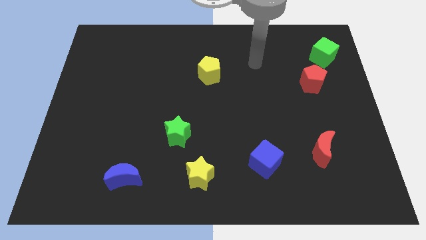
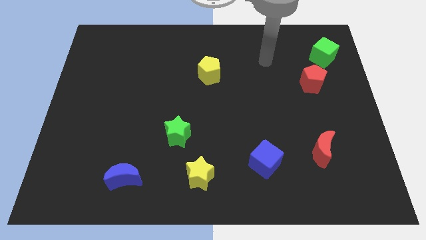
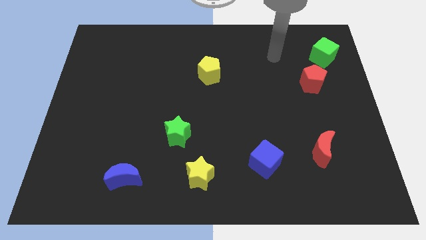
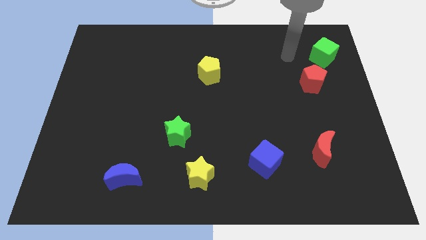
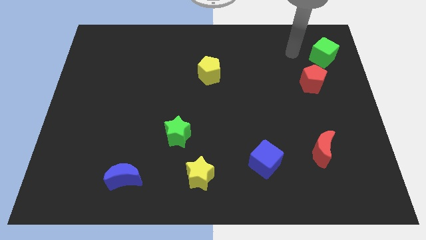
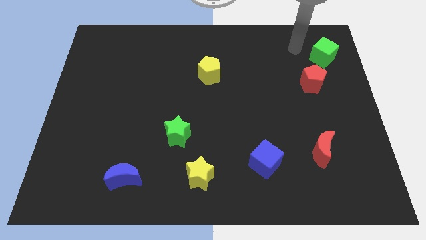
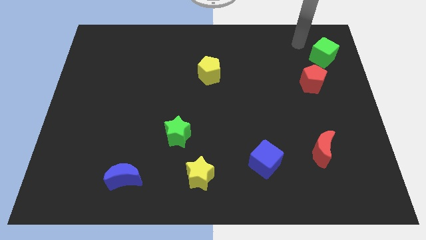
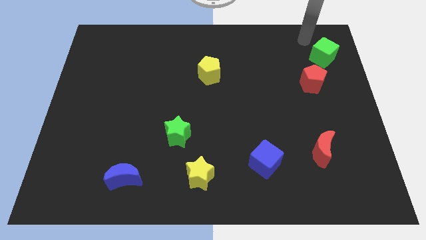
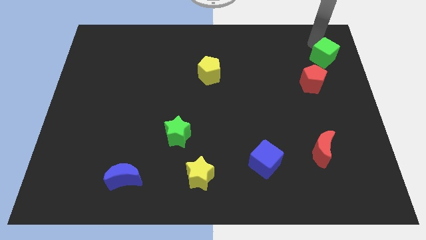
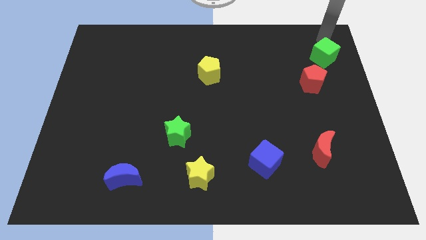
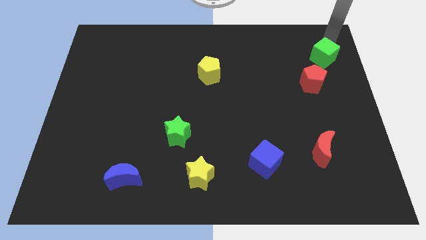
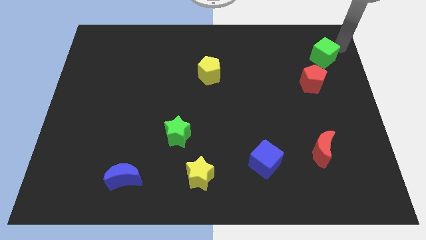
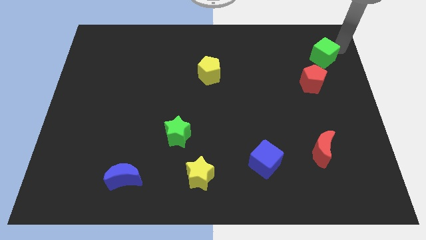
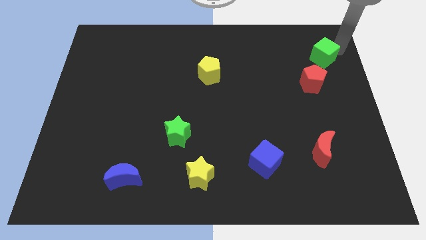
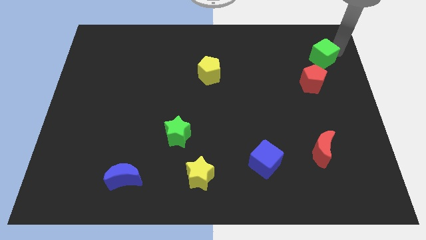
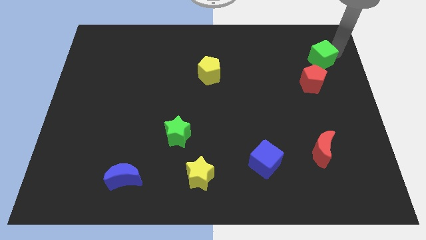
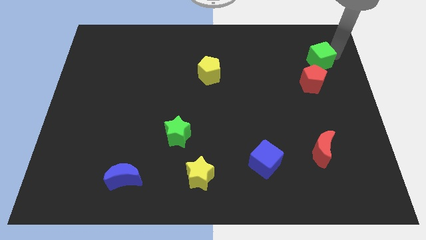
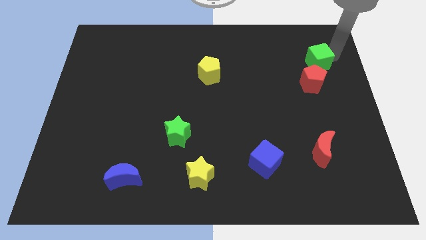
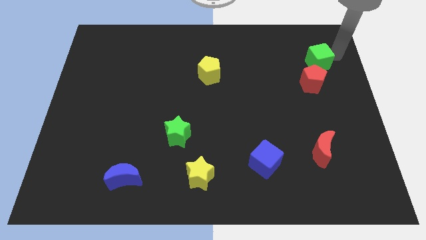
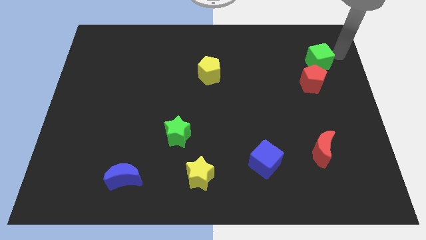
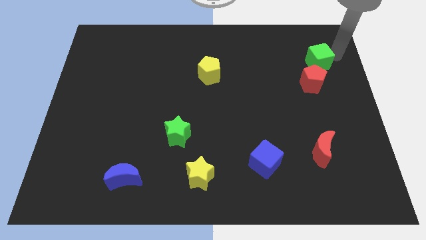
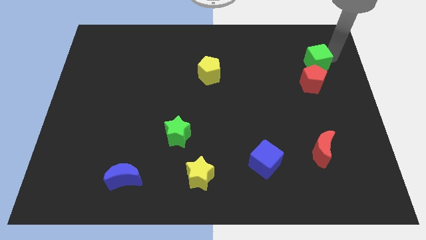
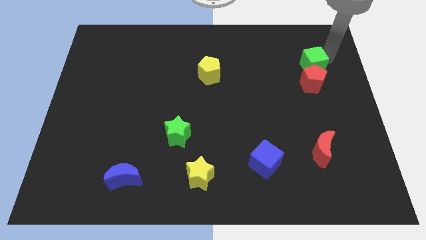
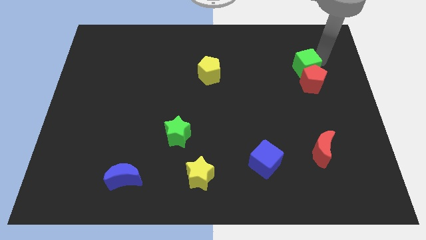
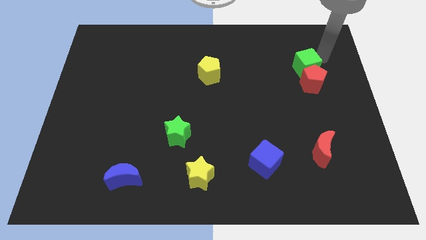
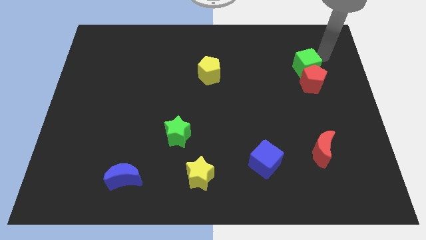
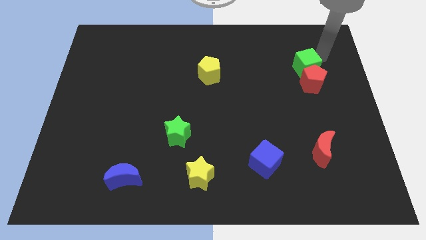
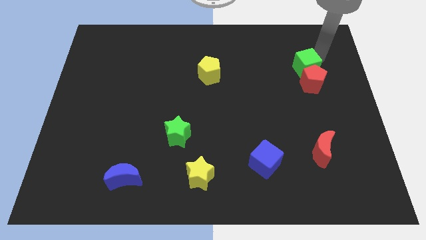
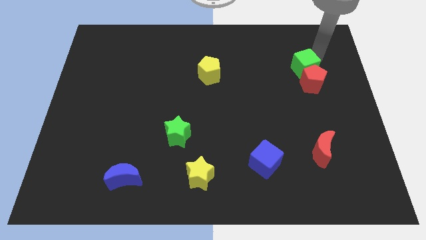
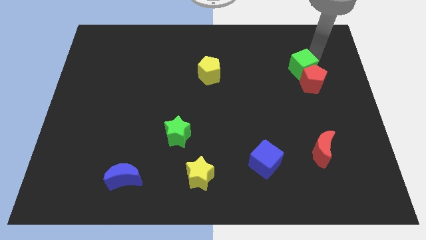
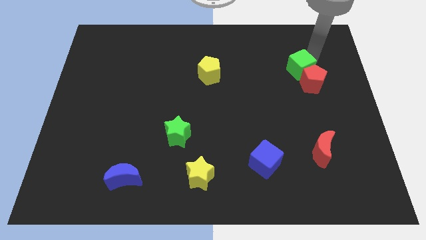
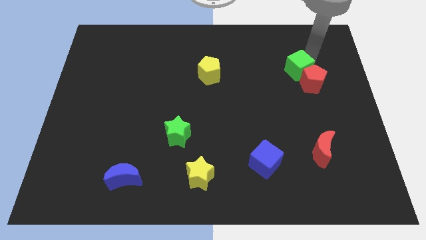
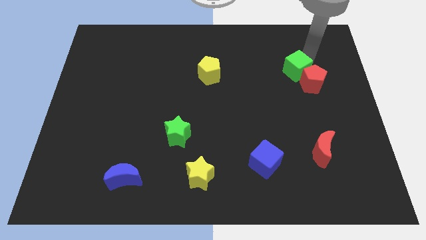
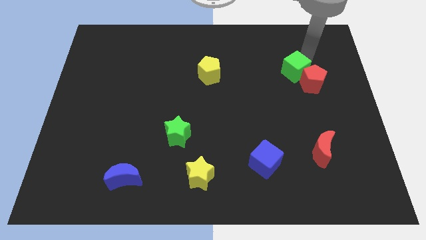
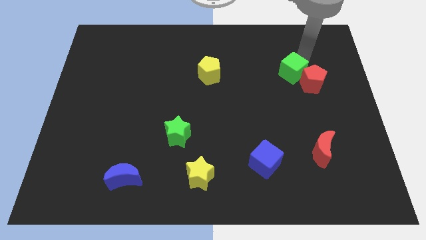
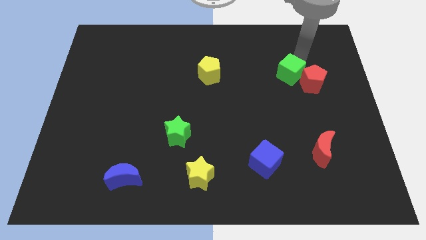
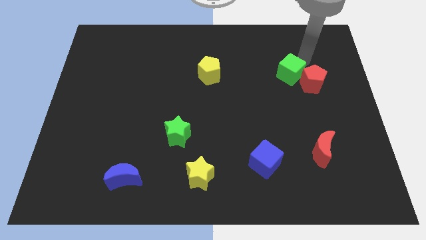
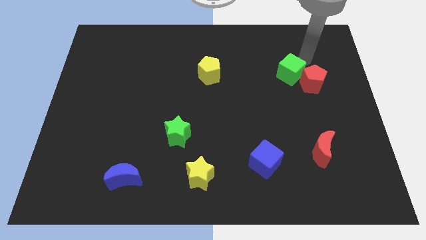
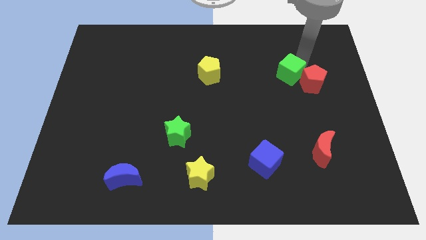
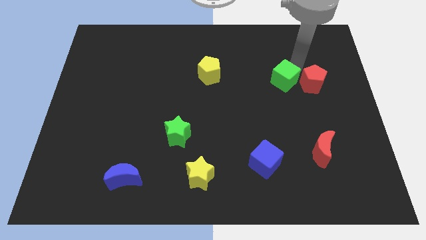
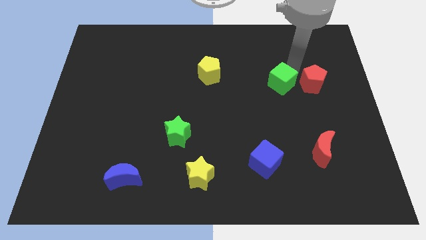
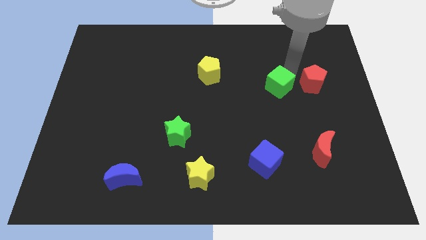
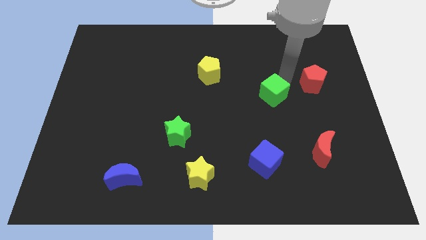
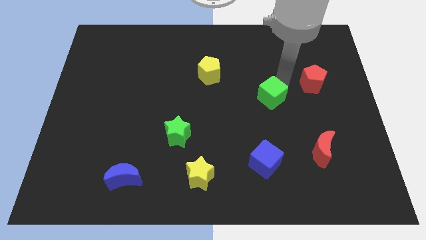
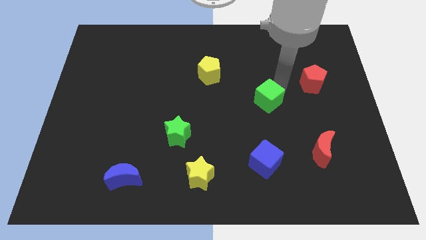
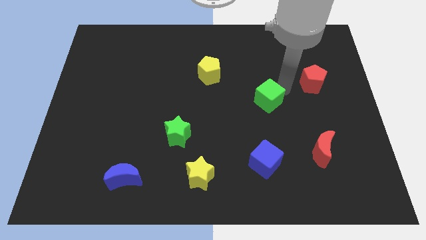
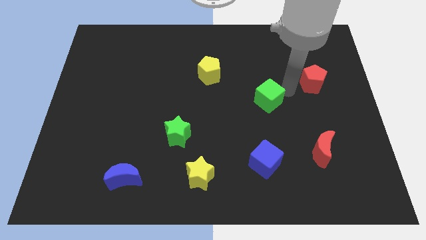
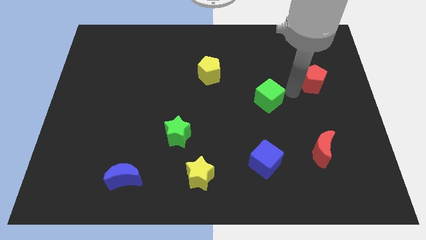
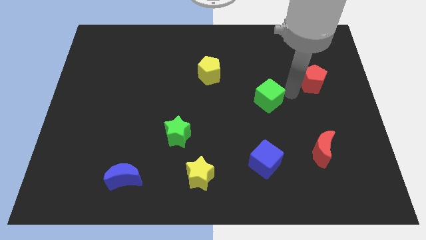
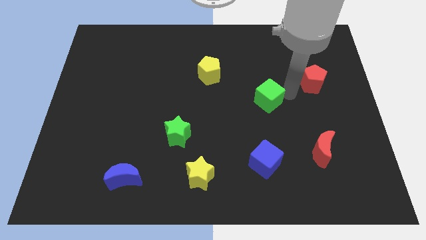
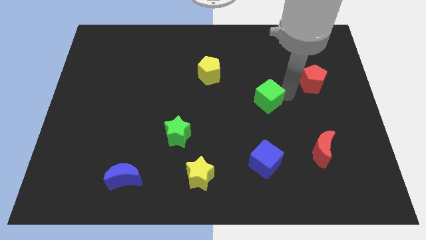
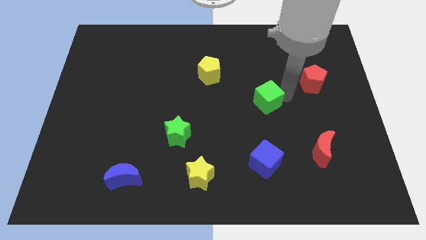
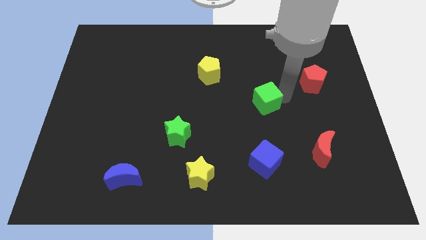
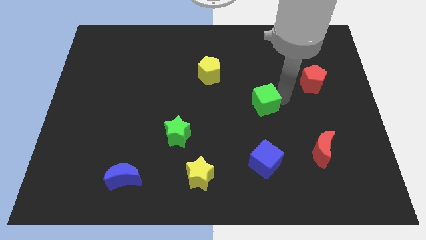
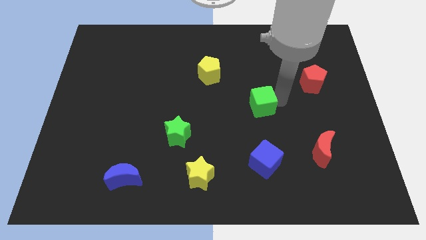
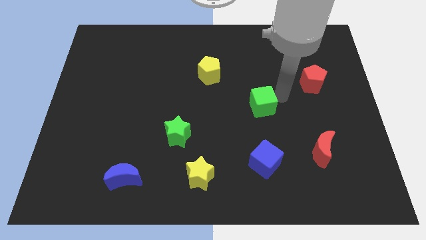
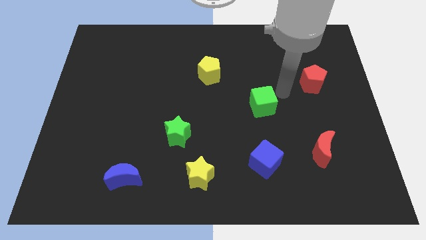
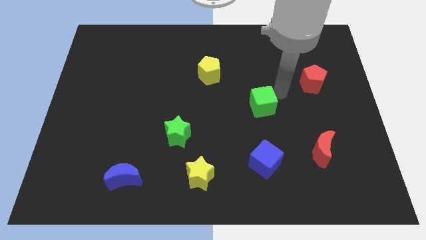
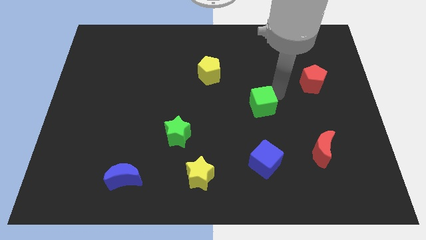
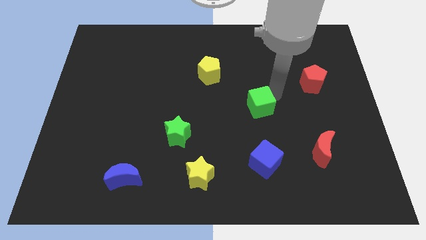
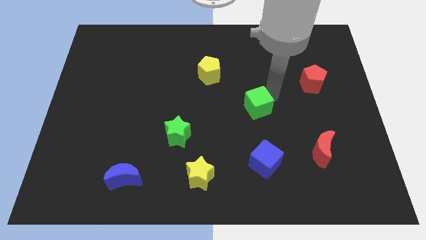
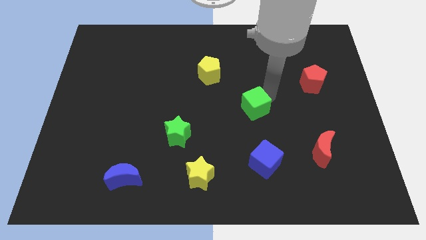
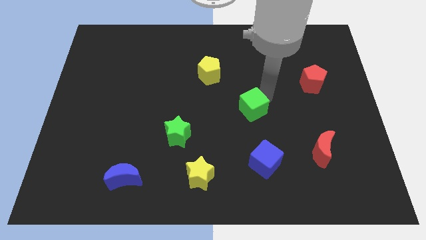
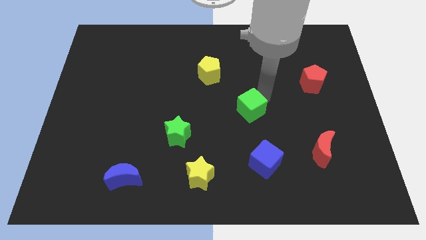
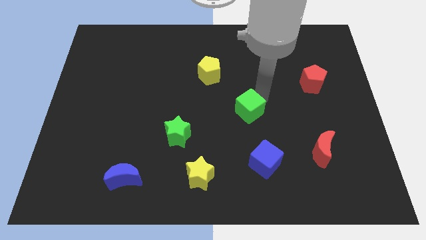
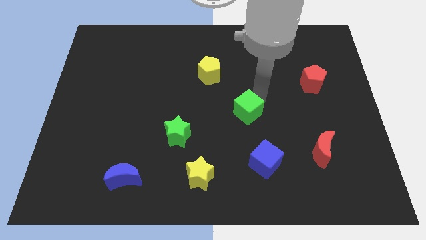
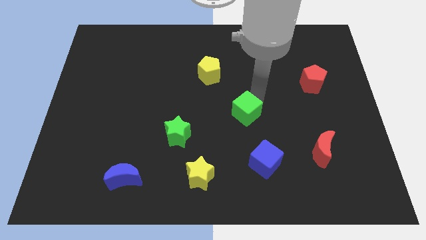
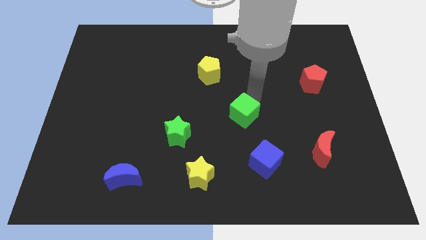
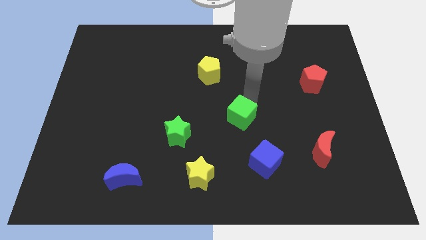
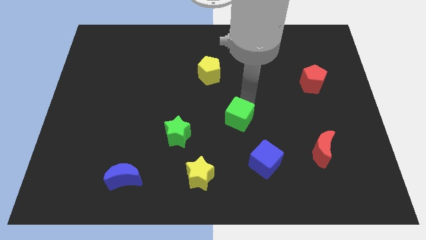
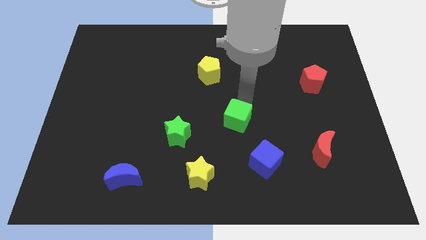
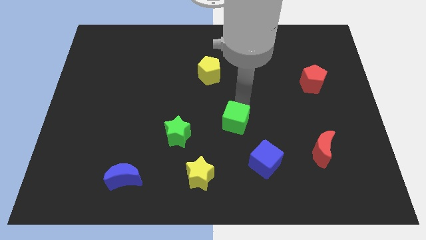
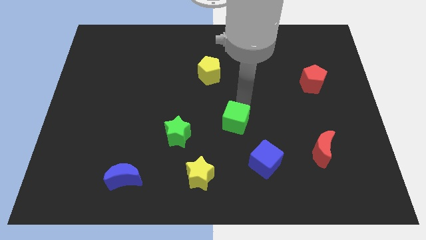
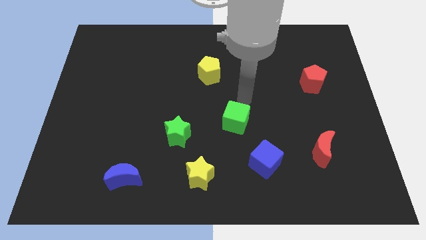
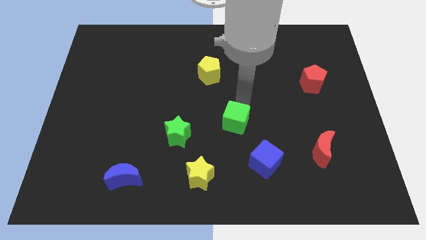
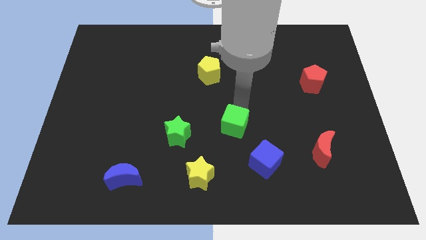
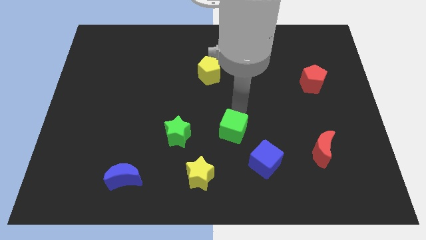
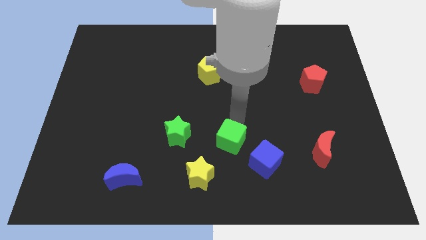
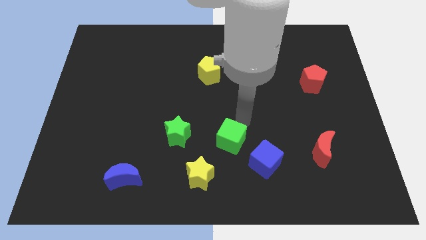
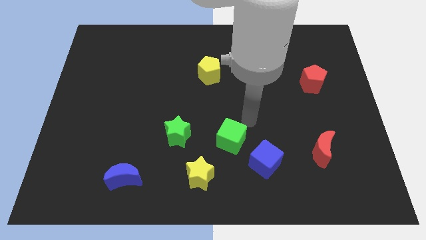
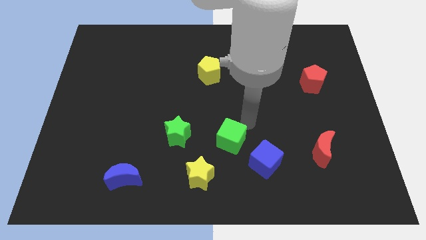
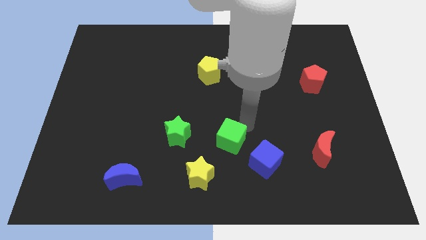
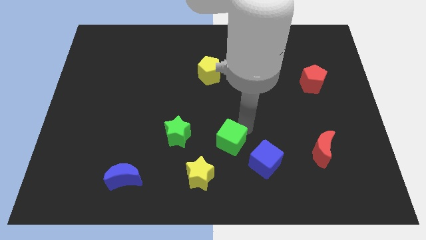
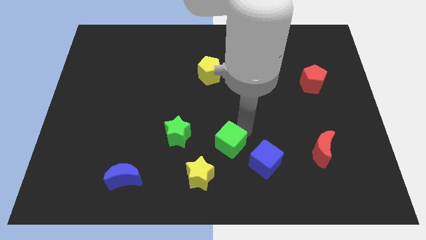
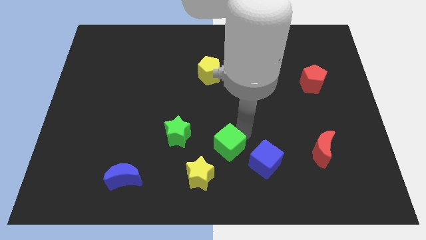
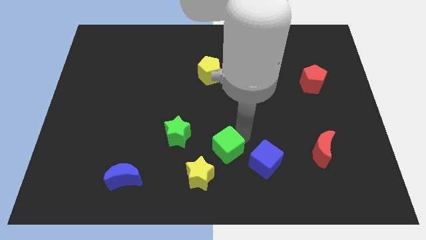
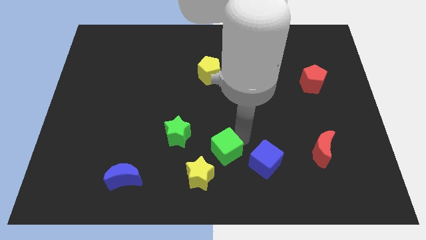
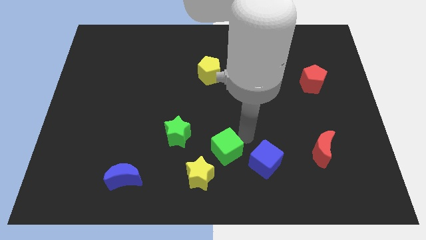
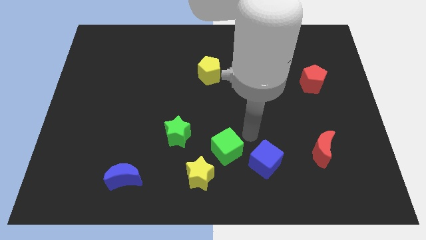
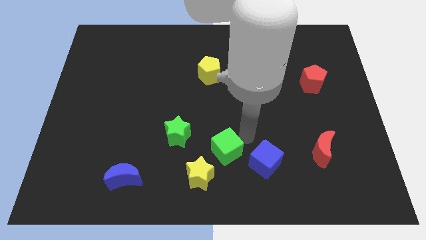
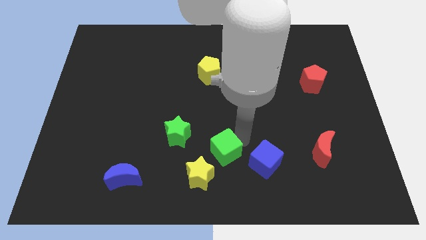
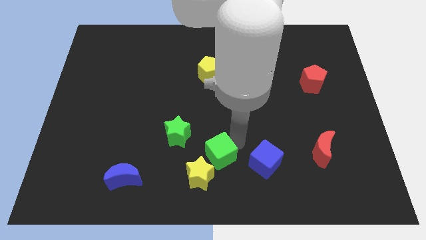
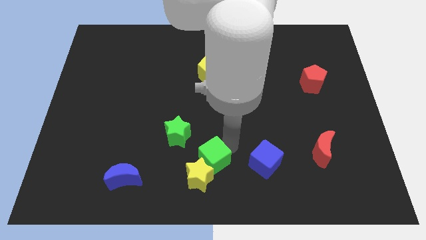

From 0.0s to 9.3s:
put the green cube towards the yellow star
